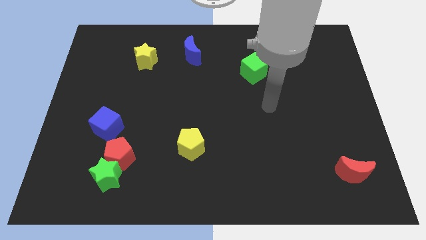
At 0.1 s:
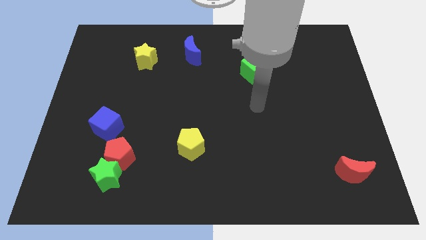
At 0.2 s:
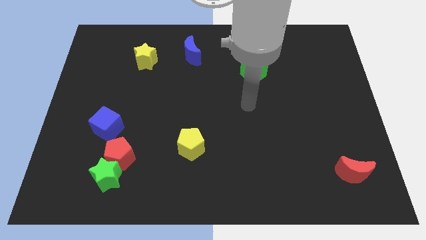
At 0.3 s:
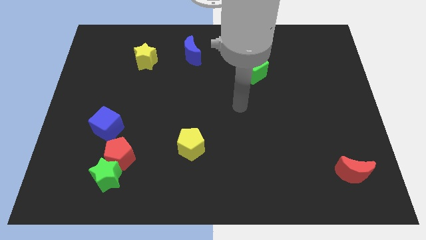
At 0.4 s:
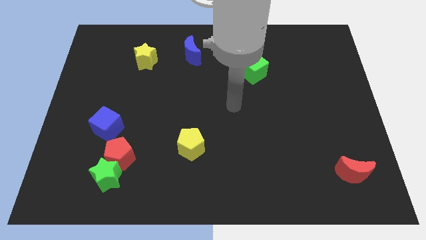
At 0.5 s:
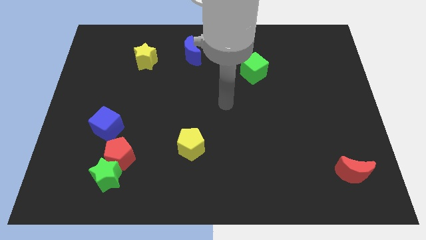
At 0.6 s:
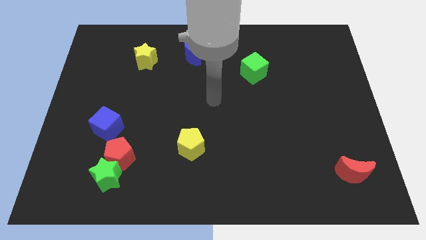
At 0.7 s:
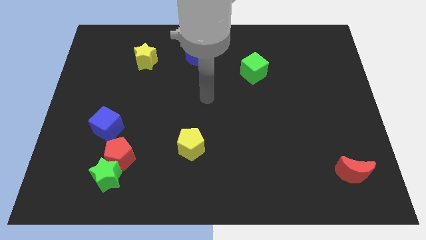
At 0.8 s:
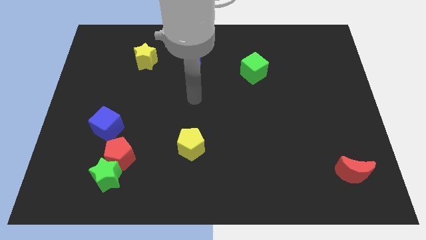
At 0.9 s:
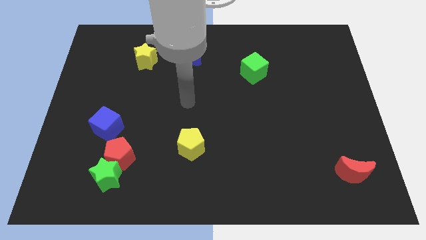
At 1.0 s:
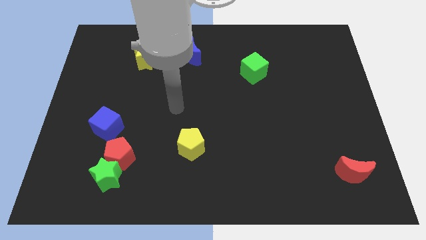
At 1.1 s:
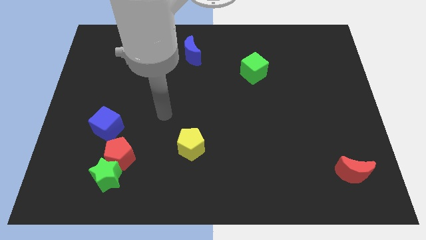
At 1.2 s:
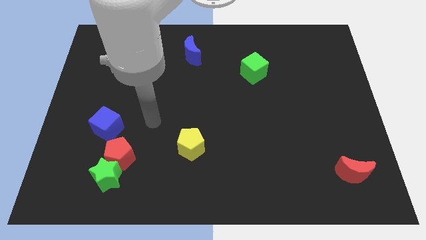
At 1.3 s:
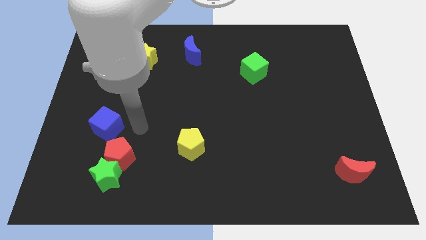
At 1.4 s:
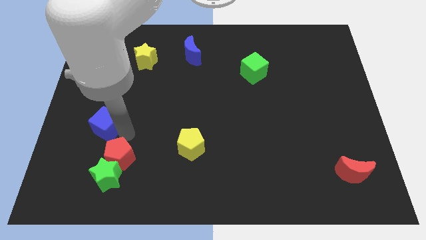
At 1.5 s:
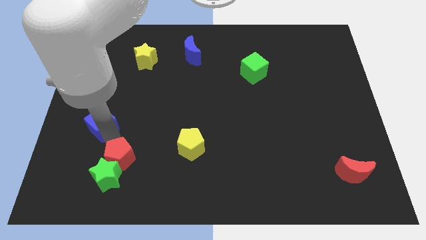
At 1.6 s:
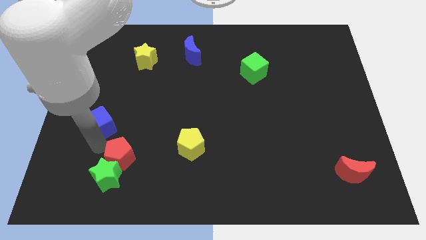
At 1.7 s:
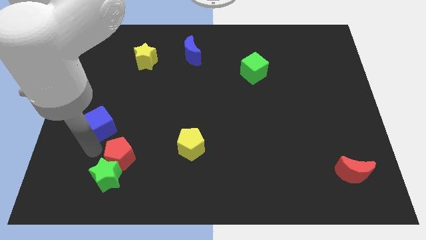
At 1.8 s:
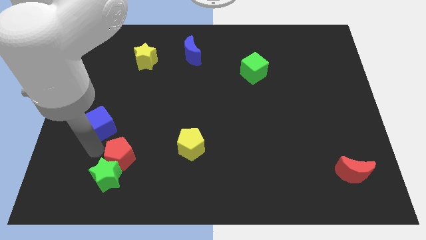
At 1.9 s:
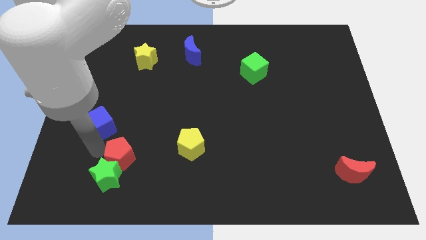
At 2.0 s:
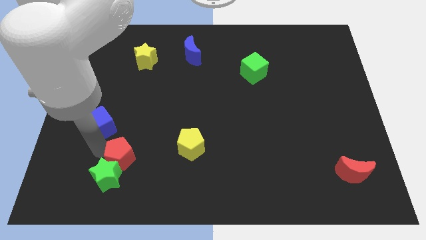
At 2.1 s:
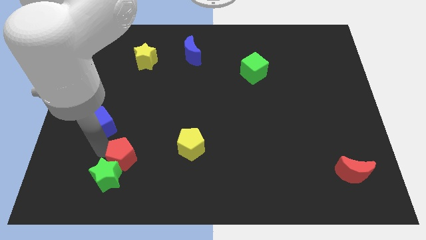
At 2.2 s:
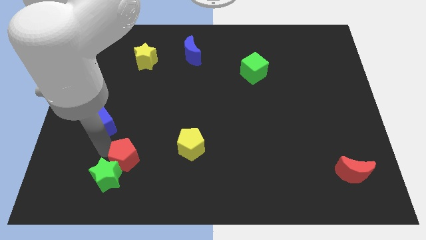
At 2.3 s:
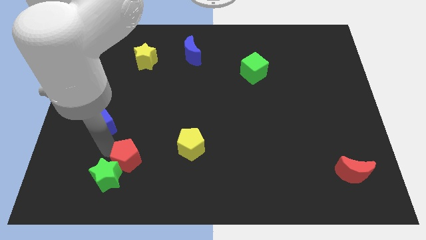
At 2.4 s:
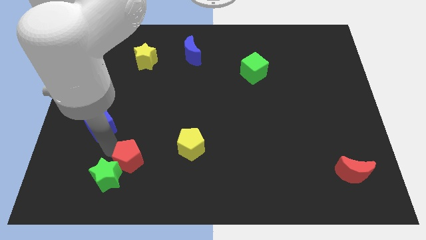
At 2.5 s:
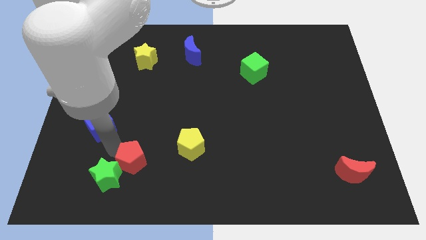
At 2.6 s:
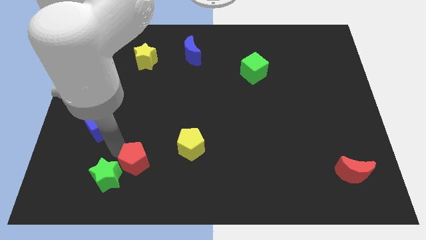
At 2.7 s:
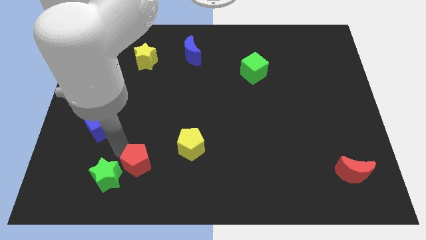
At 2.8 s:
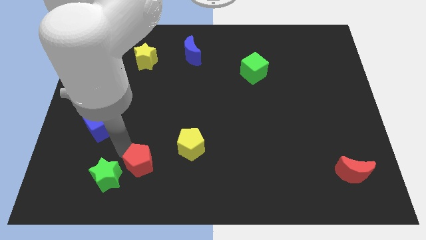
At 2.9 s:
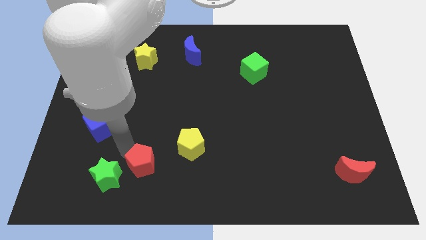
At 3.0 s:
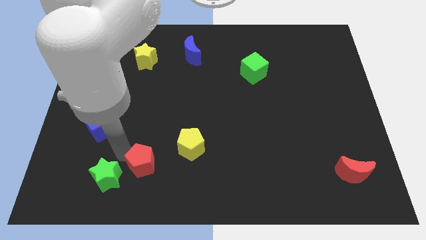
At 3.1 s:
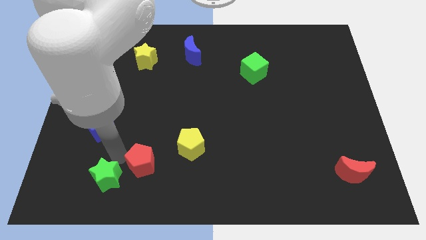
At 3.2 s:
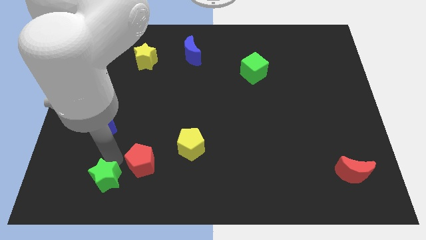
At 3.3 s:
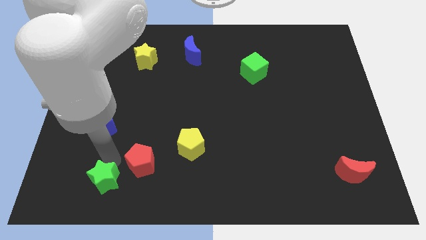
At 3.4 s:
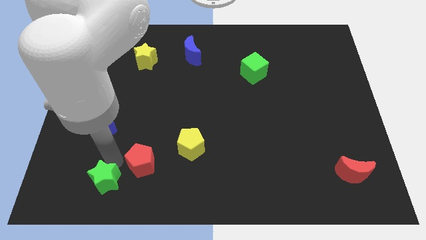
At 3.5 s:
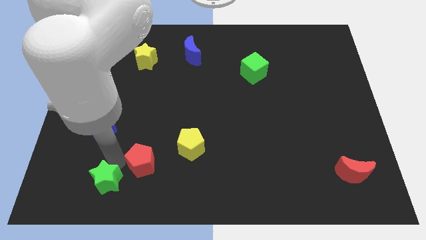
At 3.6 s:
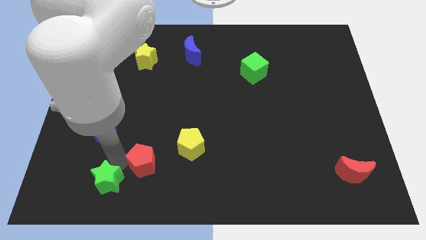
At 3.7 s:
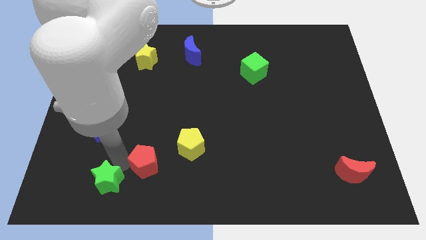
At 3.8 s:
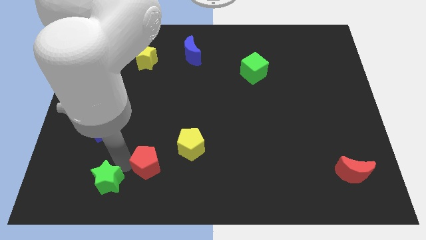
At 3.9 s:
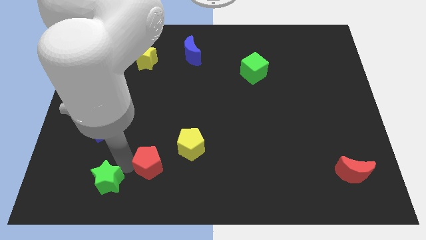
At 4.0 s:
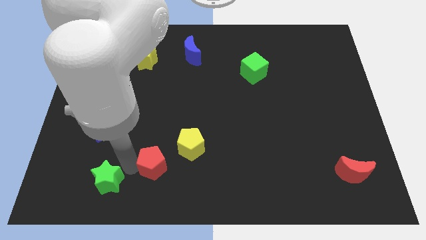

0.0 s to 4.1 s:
slide the red pentagon a bit right

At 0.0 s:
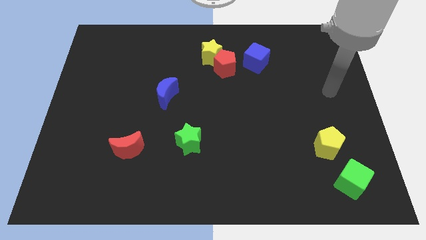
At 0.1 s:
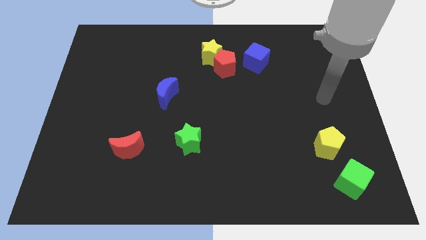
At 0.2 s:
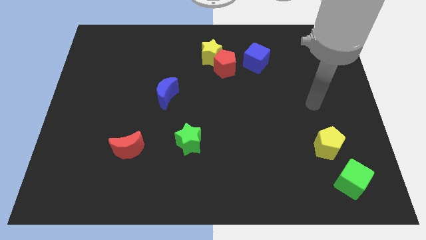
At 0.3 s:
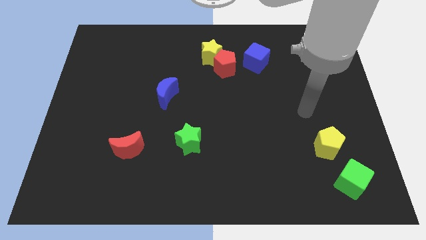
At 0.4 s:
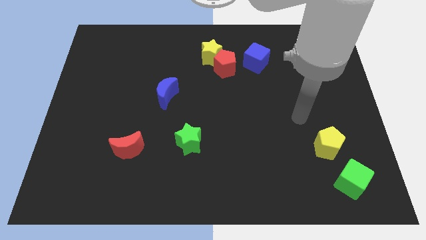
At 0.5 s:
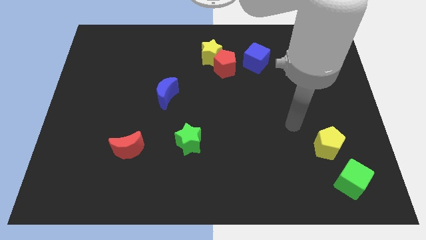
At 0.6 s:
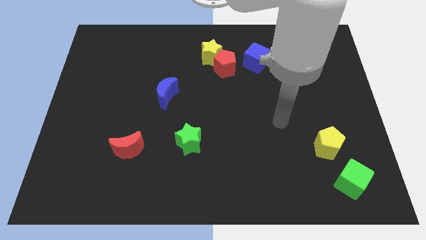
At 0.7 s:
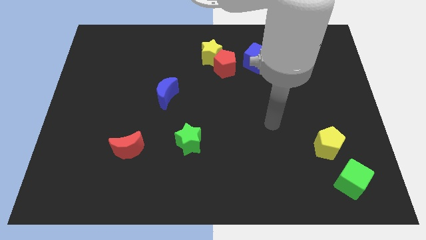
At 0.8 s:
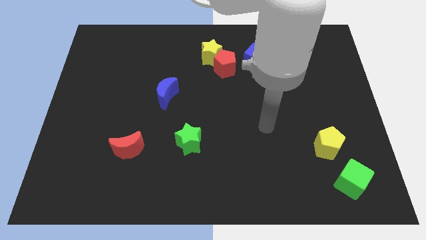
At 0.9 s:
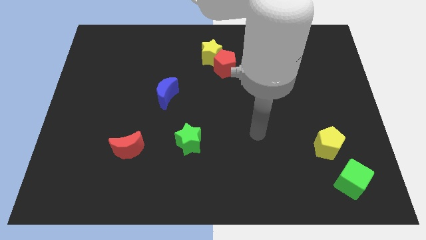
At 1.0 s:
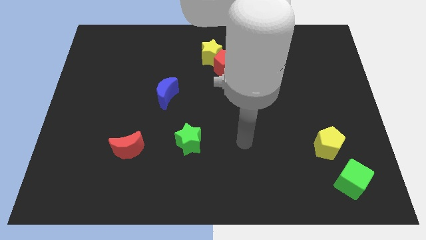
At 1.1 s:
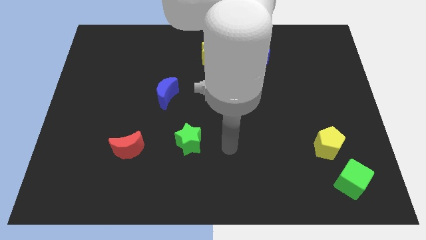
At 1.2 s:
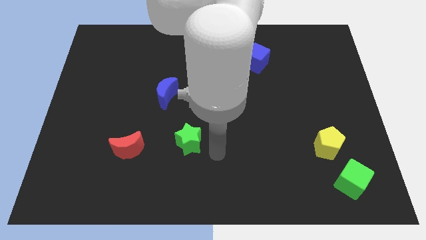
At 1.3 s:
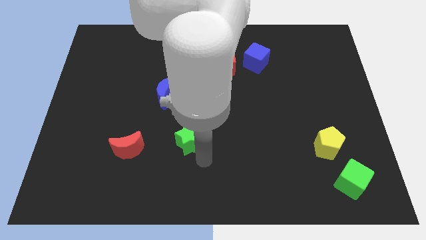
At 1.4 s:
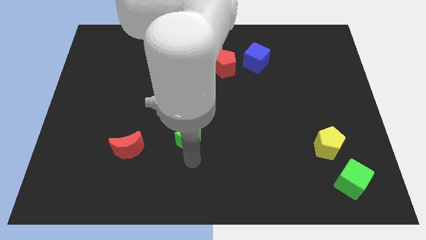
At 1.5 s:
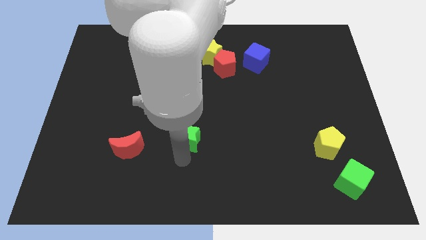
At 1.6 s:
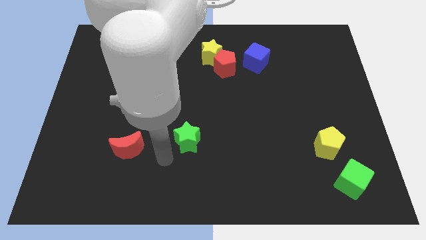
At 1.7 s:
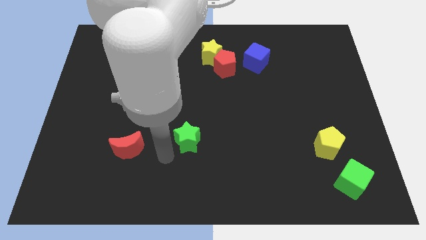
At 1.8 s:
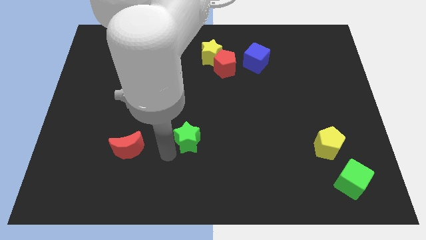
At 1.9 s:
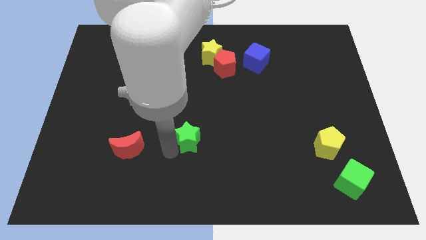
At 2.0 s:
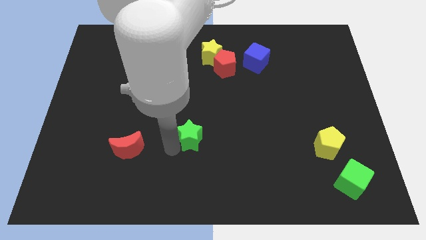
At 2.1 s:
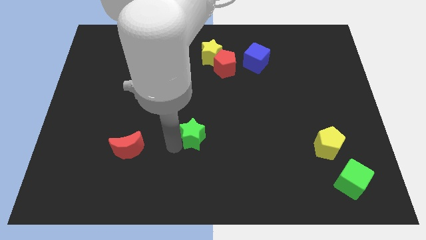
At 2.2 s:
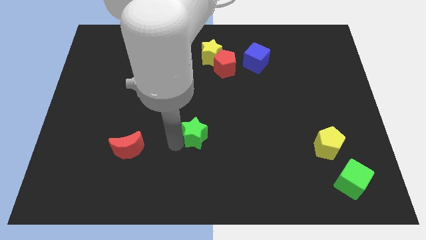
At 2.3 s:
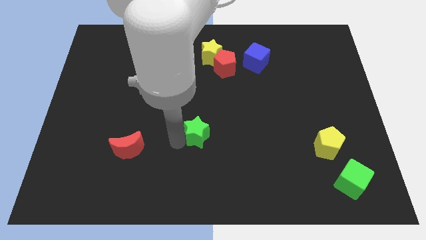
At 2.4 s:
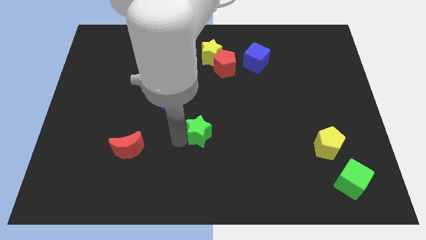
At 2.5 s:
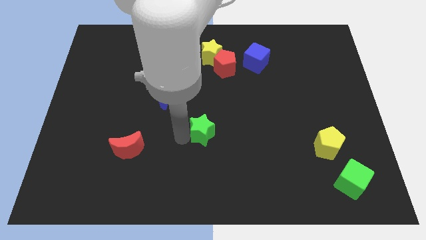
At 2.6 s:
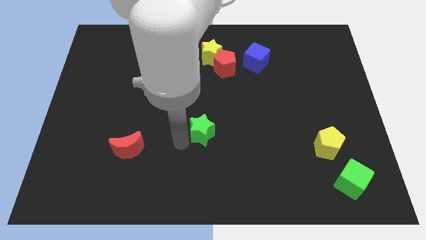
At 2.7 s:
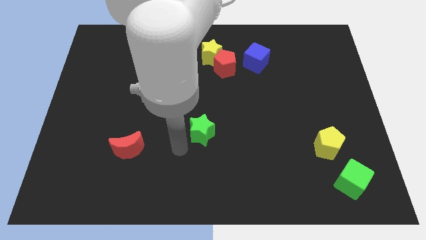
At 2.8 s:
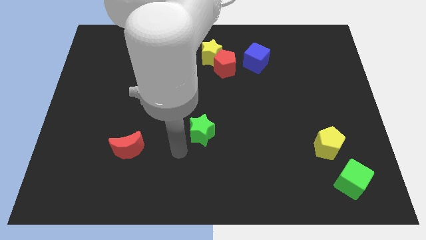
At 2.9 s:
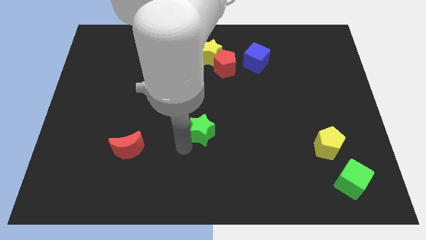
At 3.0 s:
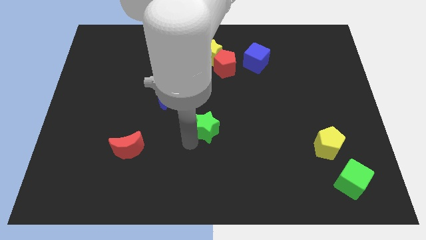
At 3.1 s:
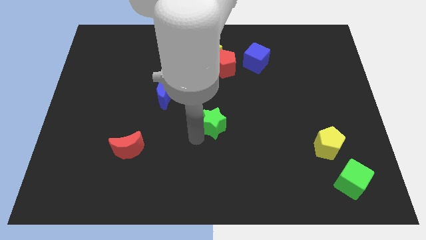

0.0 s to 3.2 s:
push the green star upwards and then right slightly

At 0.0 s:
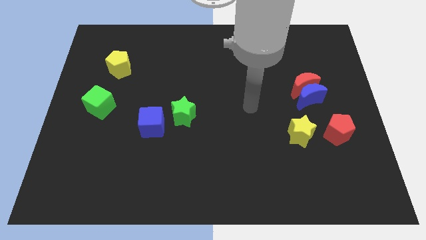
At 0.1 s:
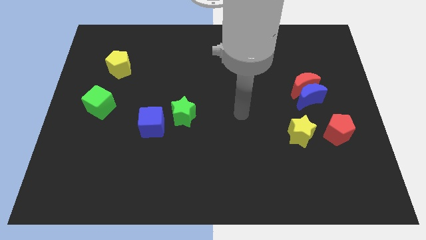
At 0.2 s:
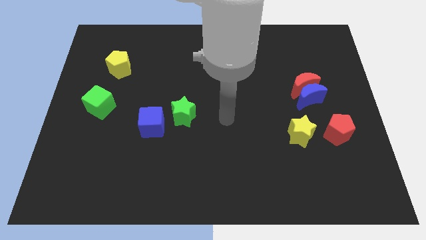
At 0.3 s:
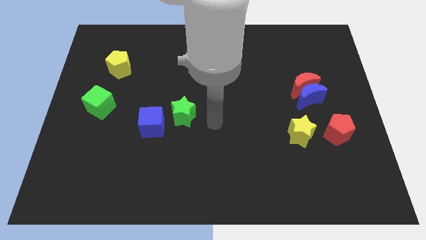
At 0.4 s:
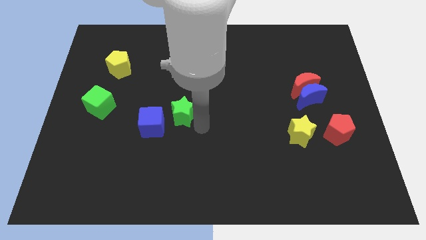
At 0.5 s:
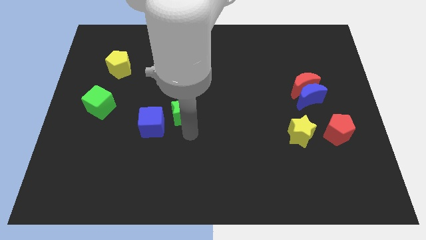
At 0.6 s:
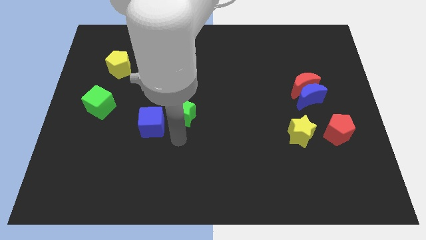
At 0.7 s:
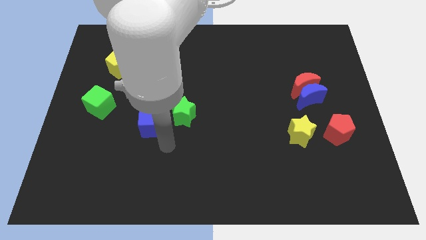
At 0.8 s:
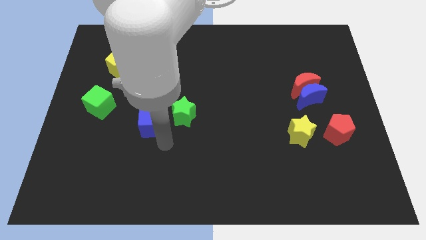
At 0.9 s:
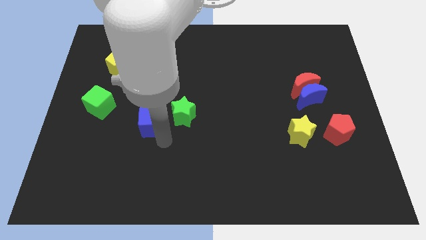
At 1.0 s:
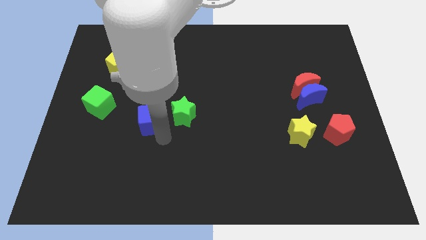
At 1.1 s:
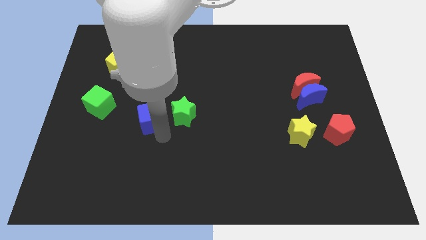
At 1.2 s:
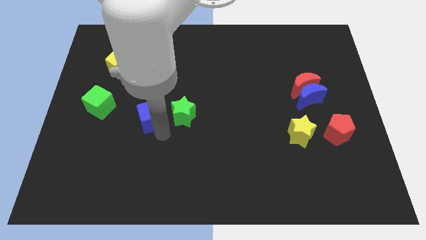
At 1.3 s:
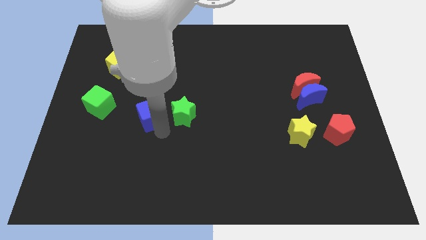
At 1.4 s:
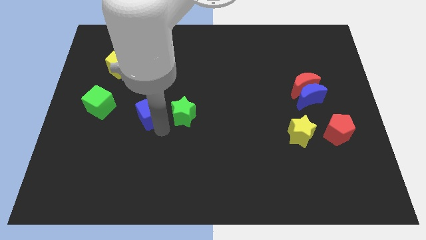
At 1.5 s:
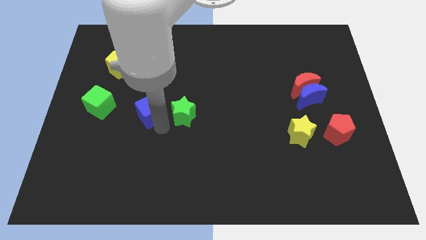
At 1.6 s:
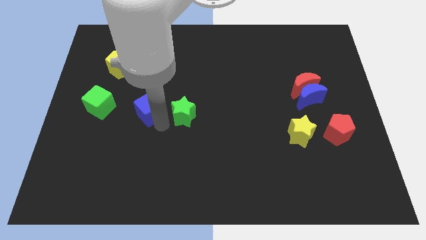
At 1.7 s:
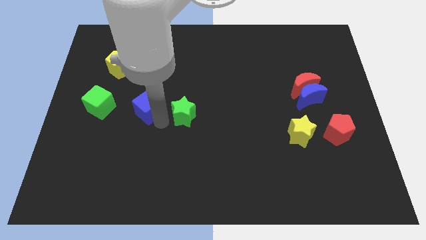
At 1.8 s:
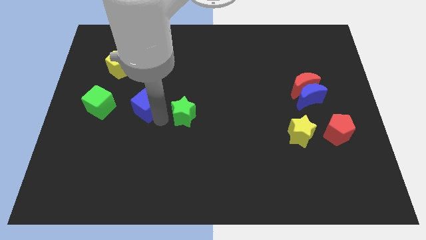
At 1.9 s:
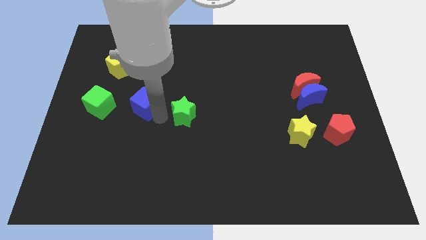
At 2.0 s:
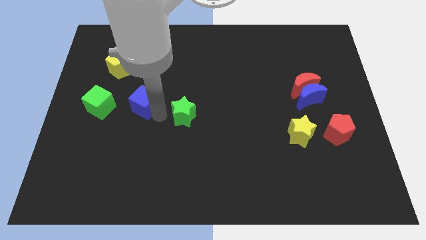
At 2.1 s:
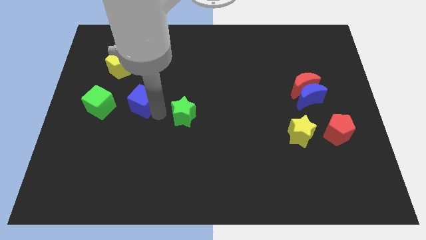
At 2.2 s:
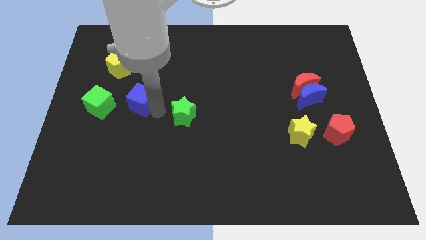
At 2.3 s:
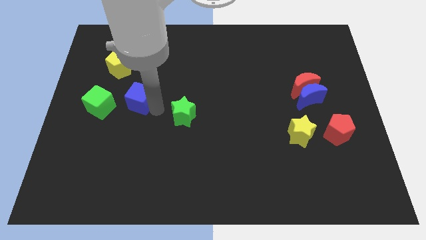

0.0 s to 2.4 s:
push the blue cube a bit upwards and left
